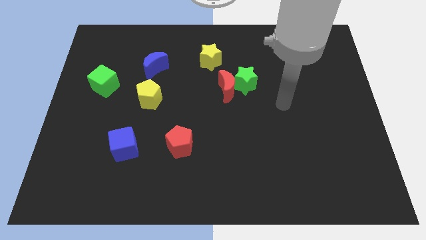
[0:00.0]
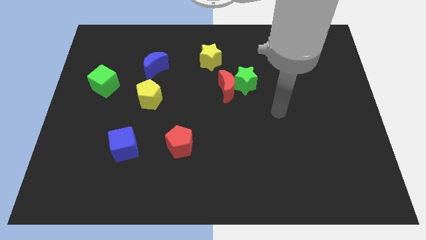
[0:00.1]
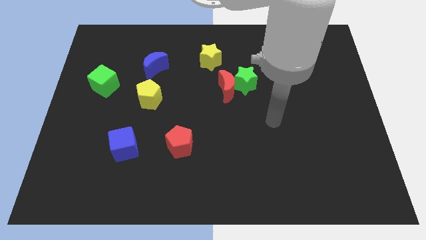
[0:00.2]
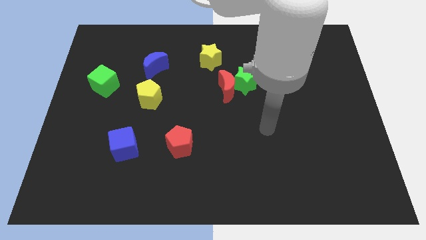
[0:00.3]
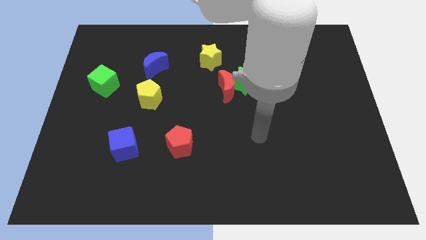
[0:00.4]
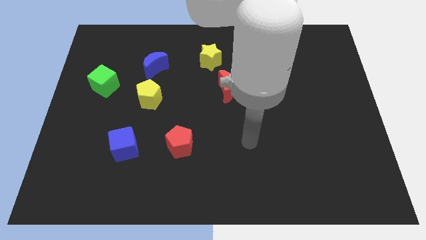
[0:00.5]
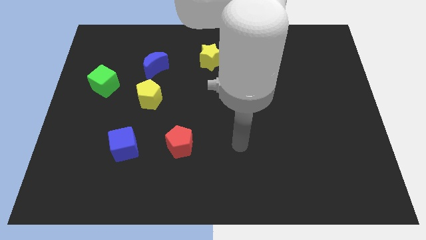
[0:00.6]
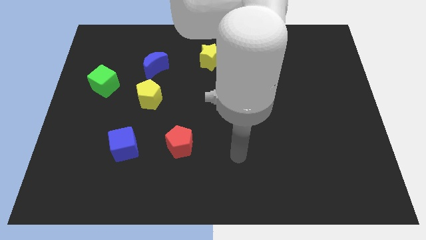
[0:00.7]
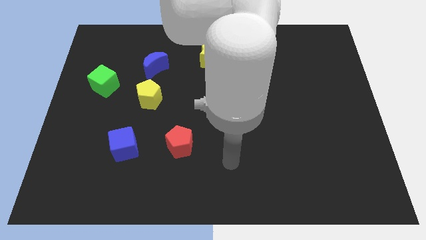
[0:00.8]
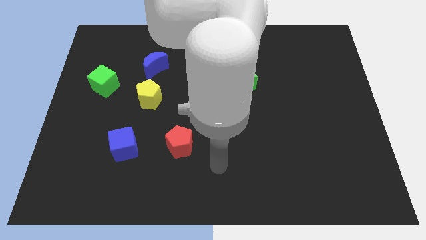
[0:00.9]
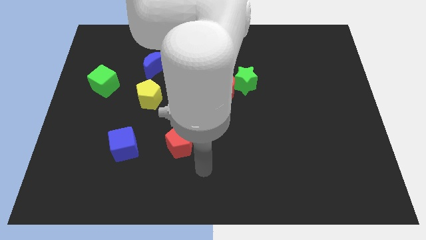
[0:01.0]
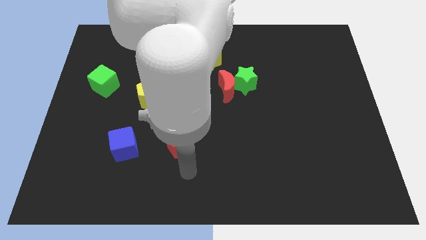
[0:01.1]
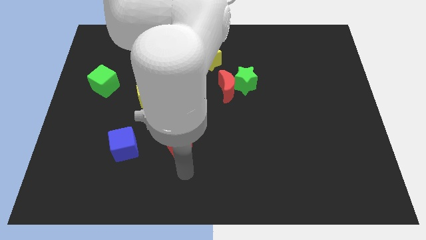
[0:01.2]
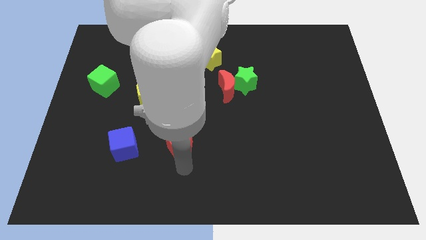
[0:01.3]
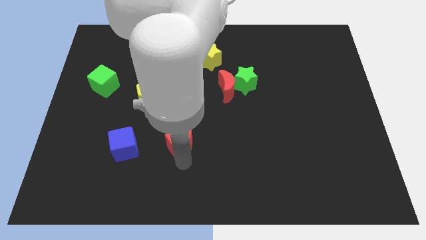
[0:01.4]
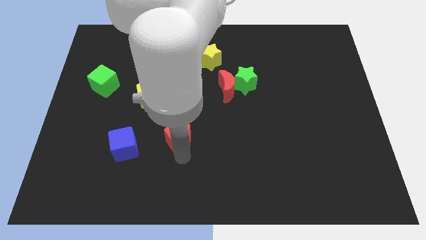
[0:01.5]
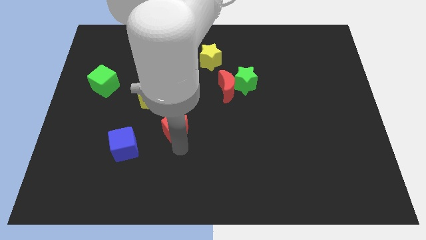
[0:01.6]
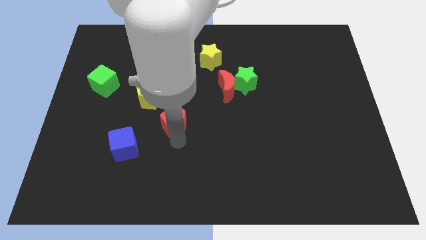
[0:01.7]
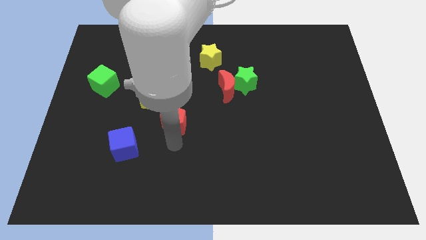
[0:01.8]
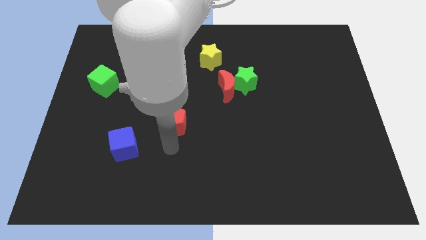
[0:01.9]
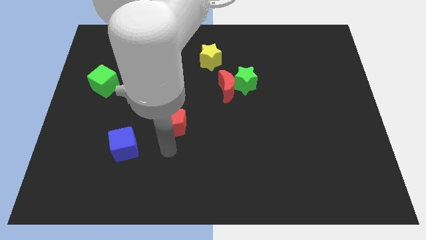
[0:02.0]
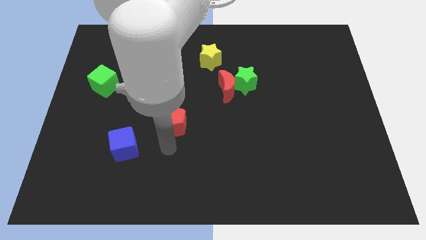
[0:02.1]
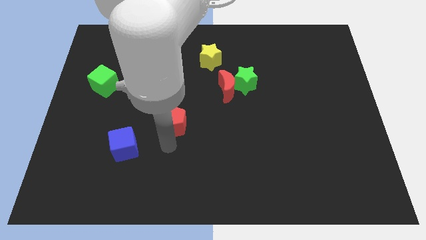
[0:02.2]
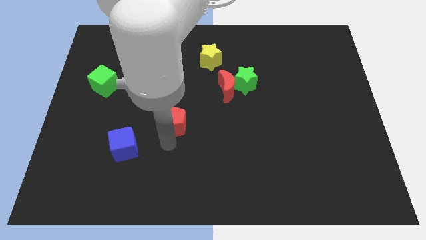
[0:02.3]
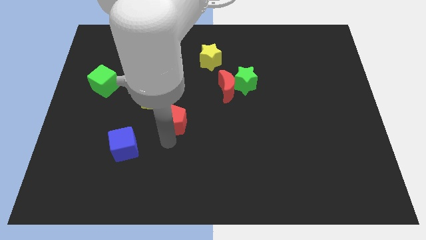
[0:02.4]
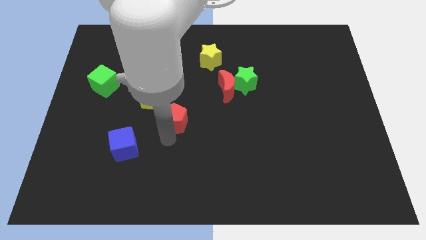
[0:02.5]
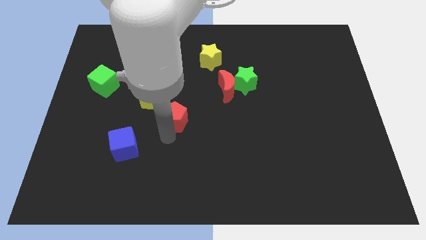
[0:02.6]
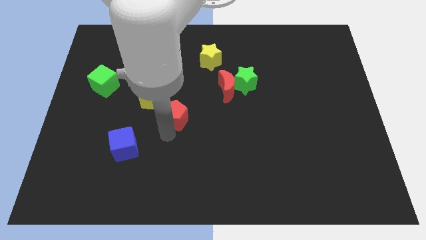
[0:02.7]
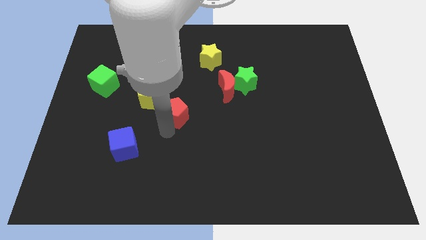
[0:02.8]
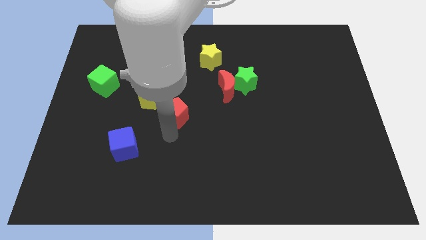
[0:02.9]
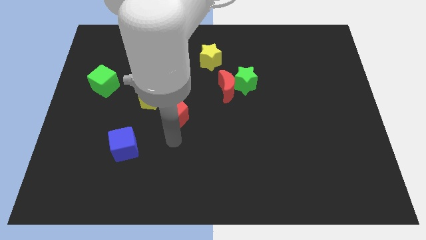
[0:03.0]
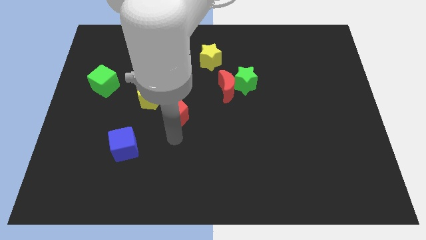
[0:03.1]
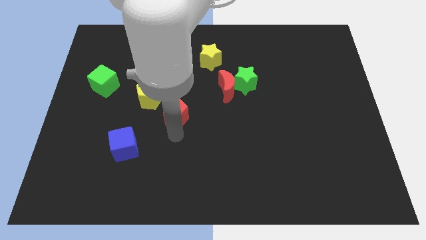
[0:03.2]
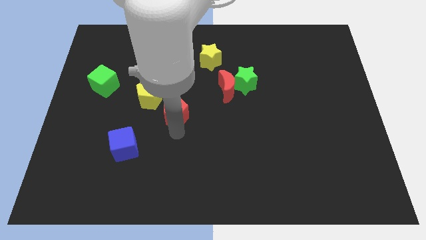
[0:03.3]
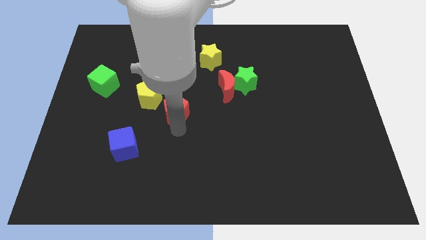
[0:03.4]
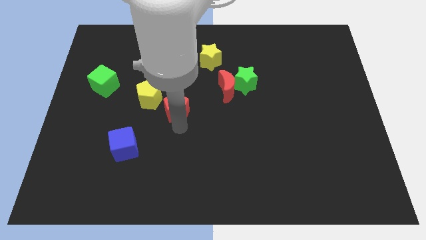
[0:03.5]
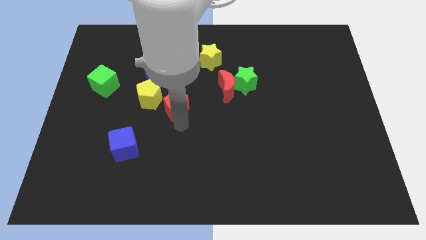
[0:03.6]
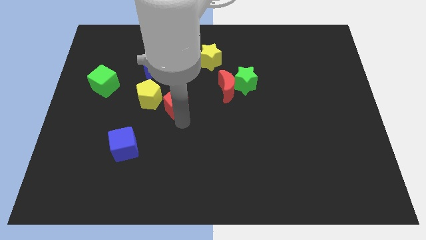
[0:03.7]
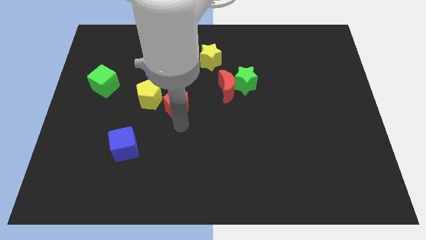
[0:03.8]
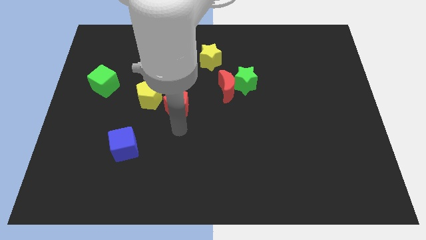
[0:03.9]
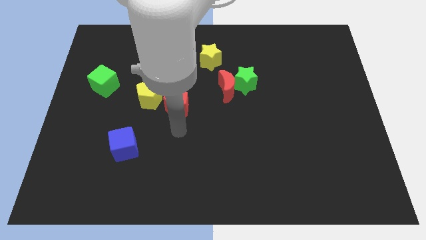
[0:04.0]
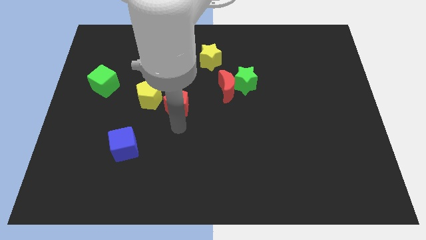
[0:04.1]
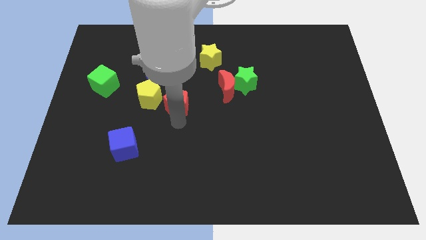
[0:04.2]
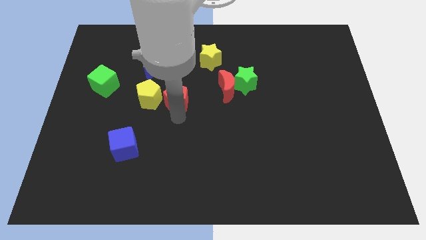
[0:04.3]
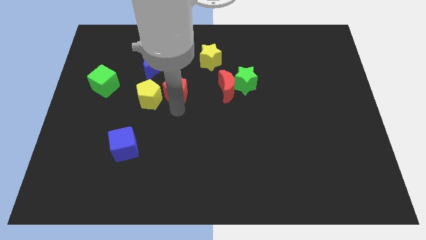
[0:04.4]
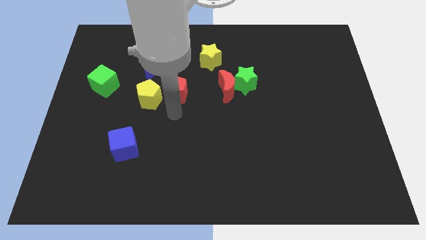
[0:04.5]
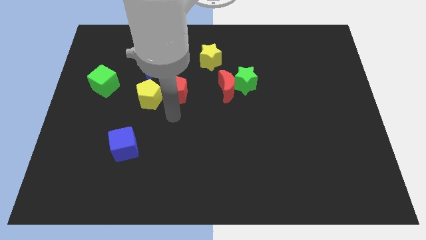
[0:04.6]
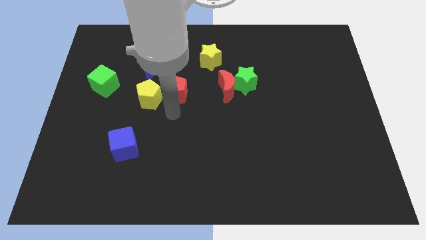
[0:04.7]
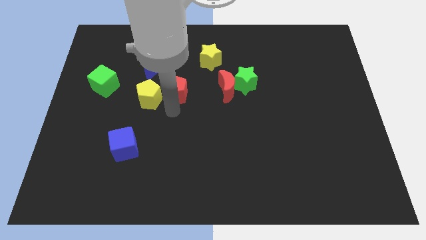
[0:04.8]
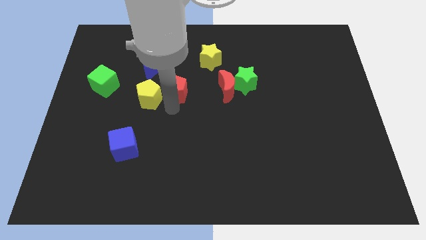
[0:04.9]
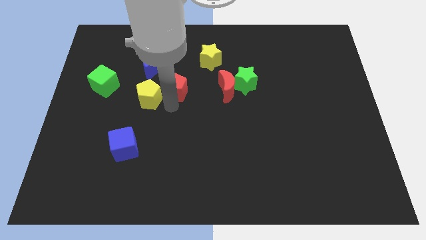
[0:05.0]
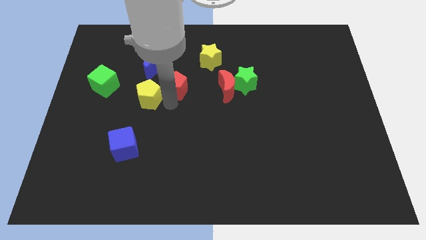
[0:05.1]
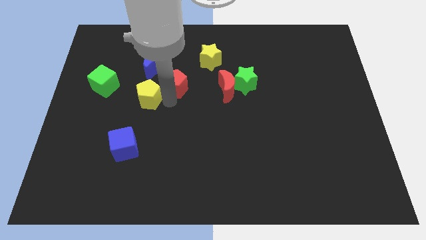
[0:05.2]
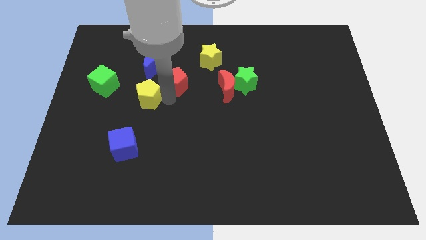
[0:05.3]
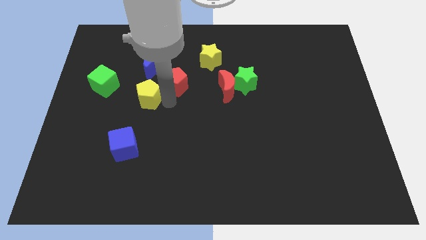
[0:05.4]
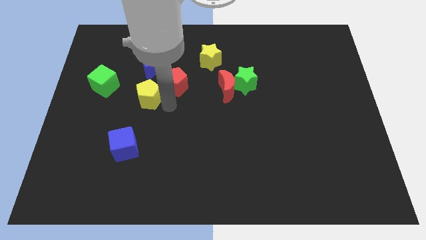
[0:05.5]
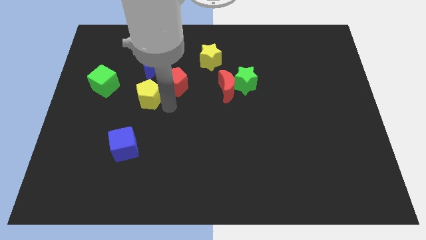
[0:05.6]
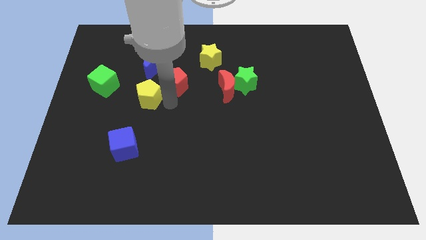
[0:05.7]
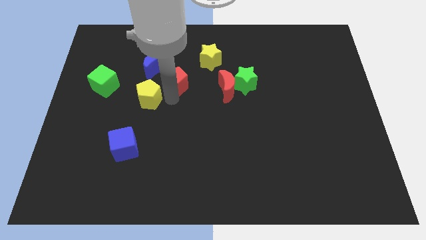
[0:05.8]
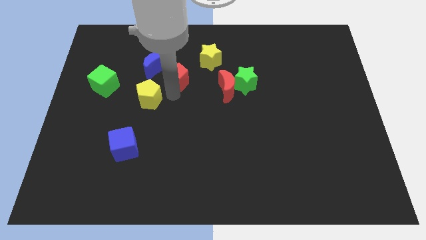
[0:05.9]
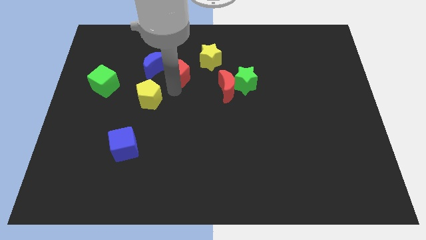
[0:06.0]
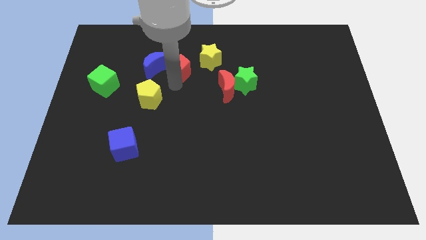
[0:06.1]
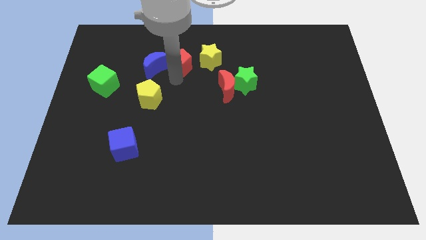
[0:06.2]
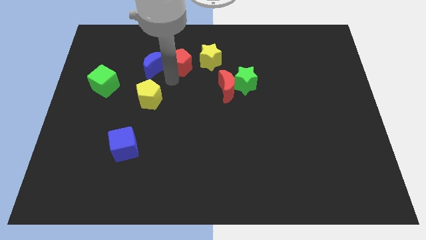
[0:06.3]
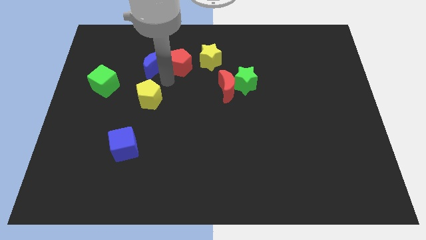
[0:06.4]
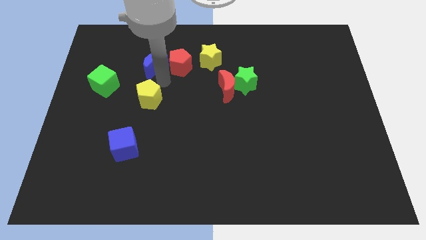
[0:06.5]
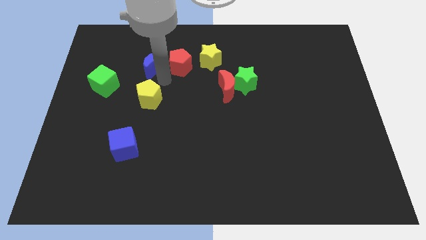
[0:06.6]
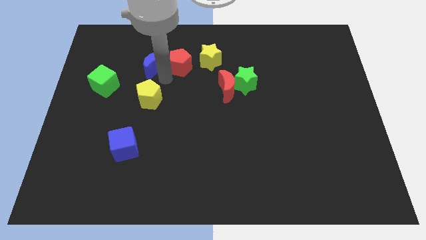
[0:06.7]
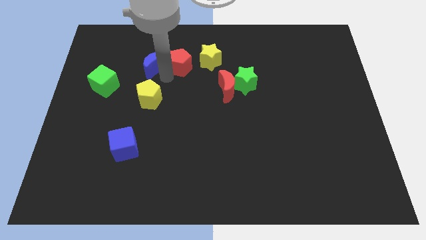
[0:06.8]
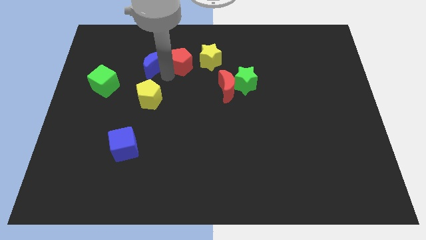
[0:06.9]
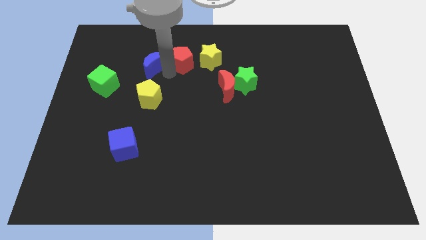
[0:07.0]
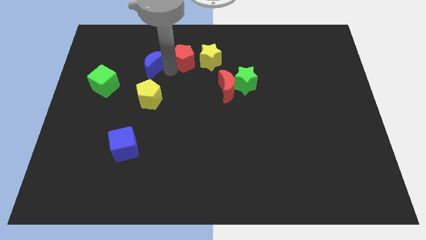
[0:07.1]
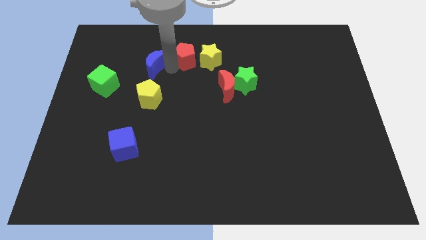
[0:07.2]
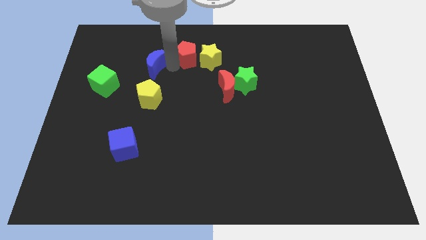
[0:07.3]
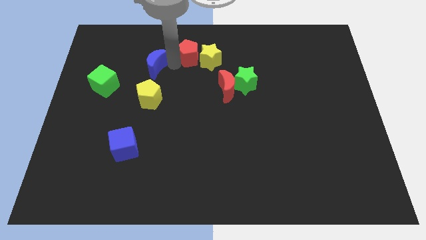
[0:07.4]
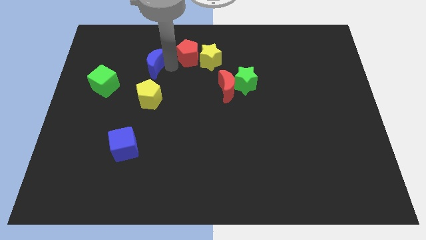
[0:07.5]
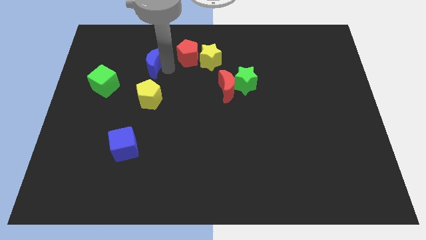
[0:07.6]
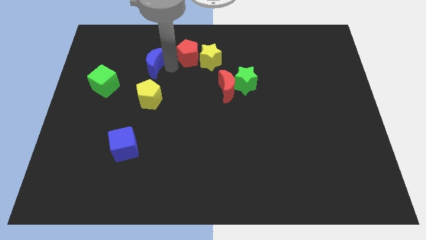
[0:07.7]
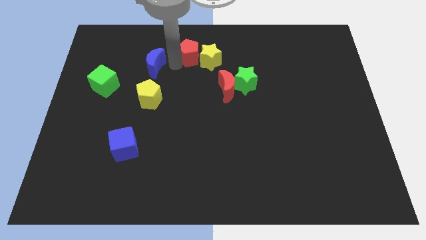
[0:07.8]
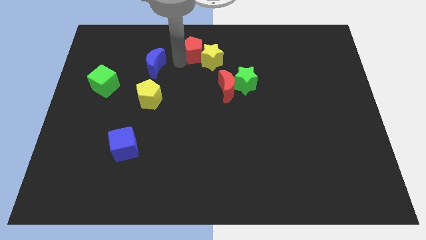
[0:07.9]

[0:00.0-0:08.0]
move the red pentagon to the top side
